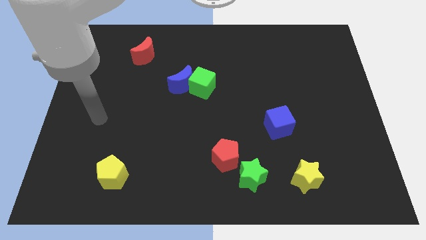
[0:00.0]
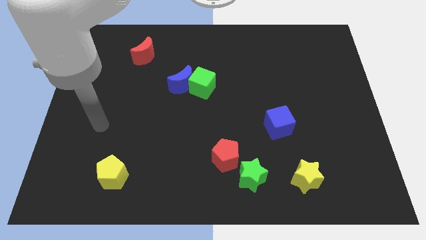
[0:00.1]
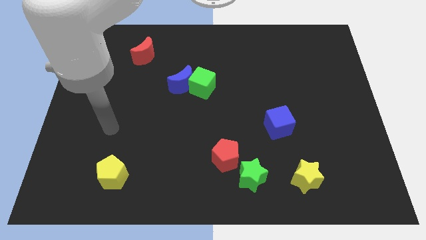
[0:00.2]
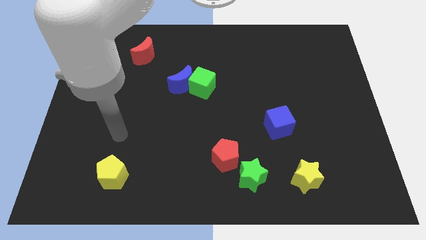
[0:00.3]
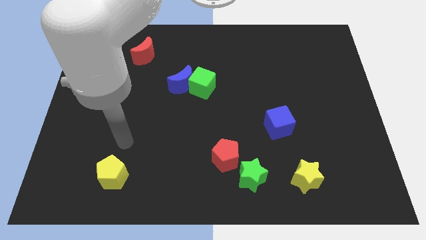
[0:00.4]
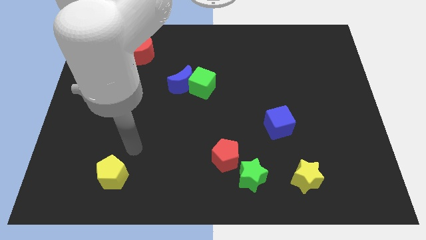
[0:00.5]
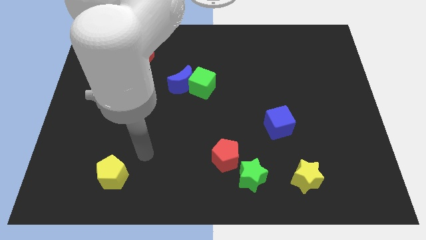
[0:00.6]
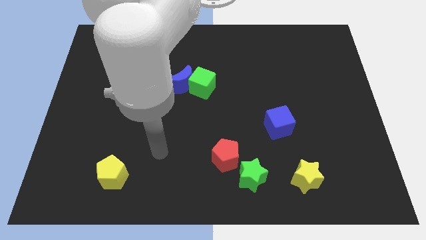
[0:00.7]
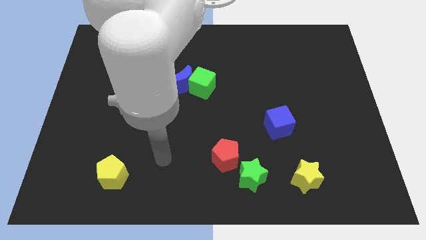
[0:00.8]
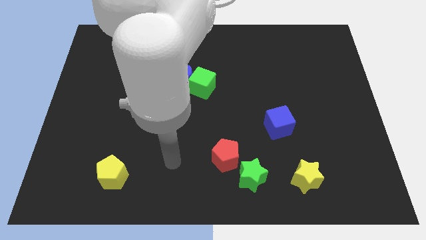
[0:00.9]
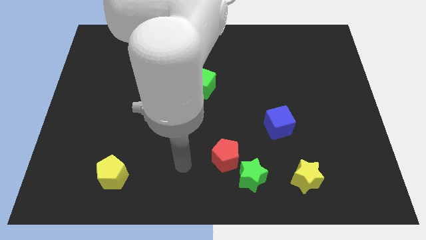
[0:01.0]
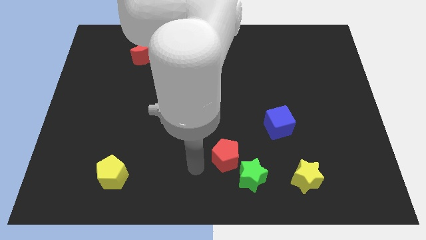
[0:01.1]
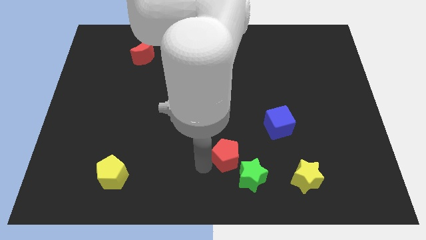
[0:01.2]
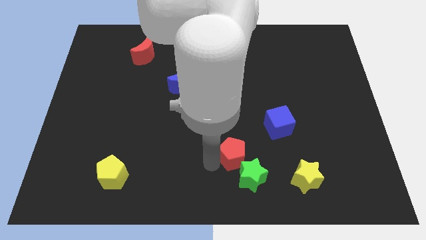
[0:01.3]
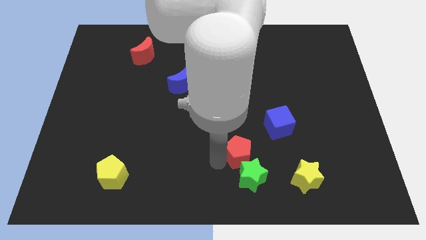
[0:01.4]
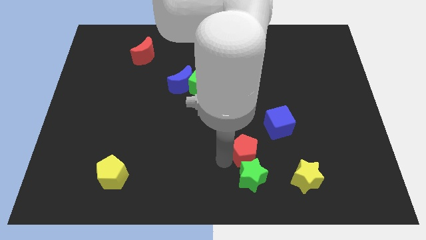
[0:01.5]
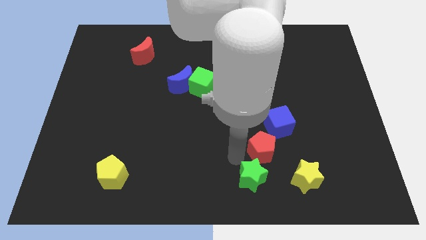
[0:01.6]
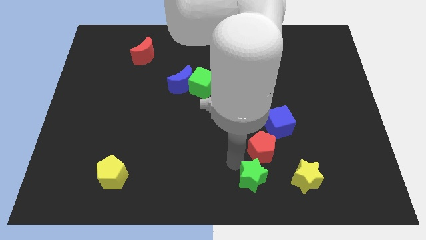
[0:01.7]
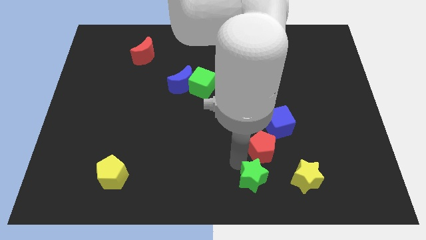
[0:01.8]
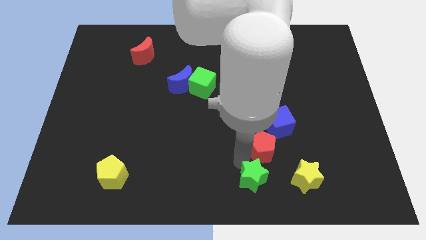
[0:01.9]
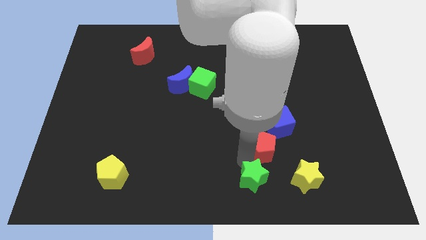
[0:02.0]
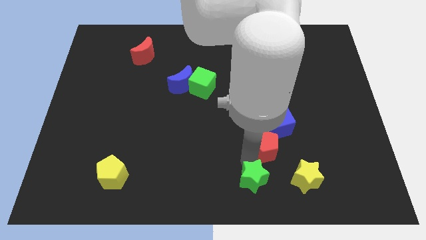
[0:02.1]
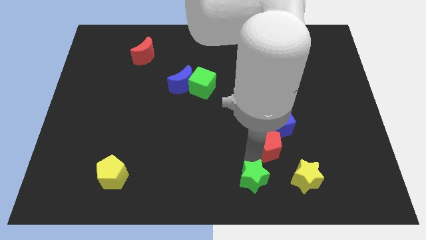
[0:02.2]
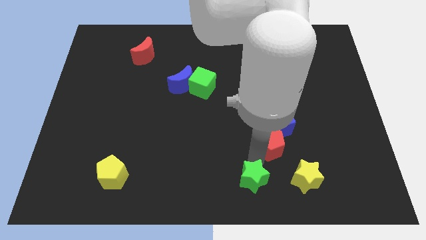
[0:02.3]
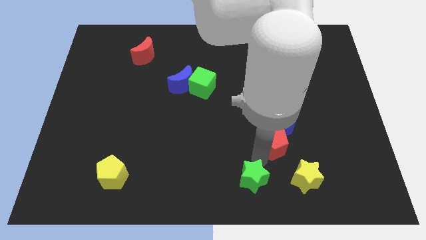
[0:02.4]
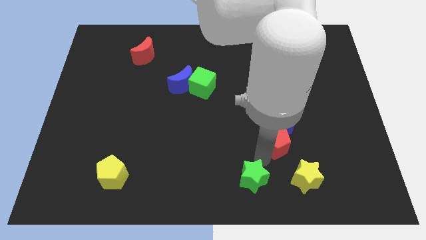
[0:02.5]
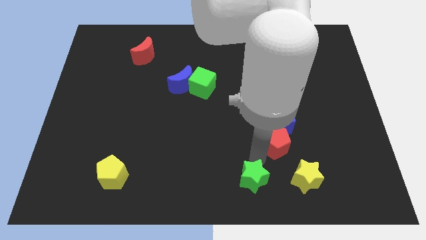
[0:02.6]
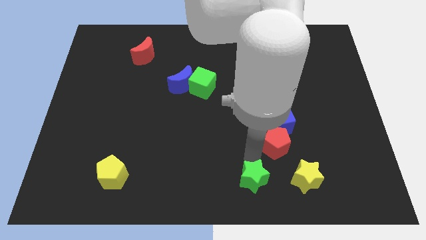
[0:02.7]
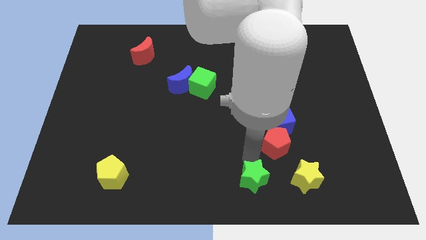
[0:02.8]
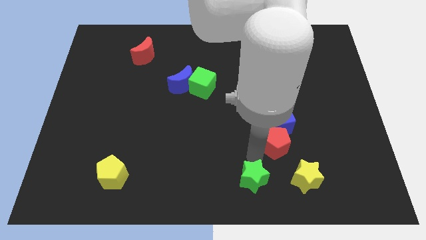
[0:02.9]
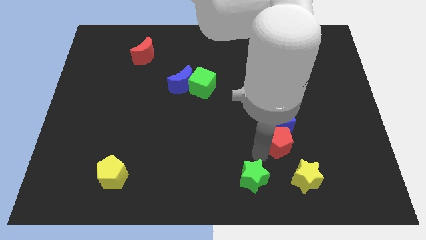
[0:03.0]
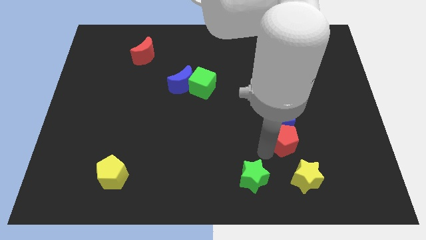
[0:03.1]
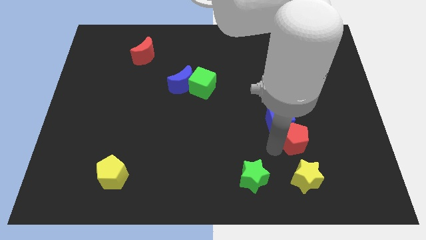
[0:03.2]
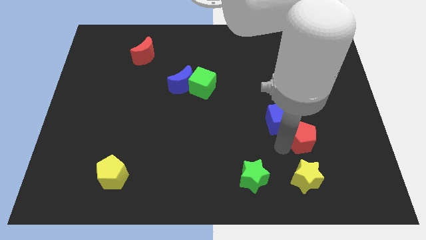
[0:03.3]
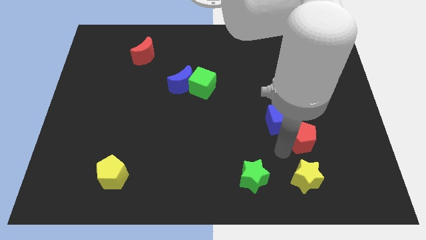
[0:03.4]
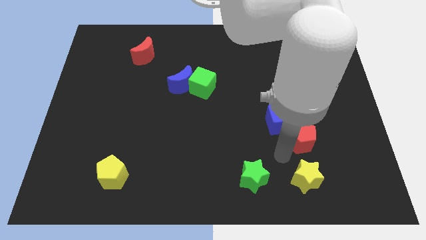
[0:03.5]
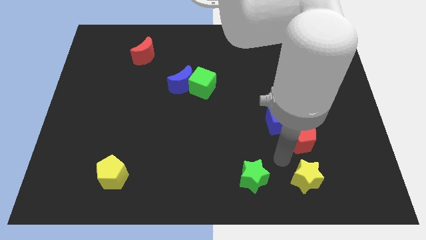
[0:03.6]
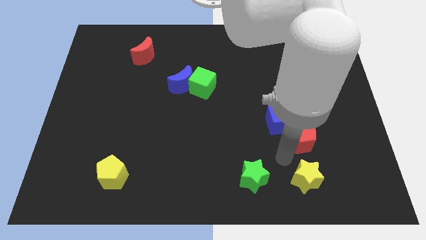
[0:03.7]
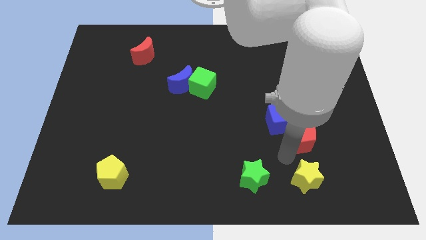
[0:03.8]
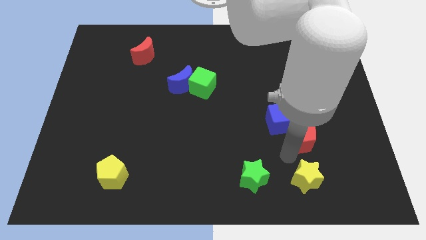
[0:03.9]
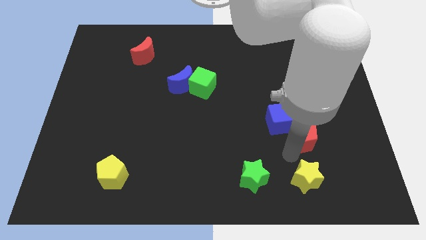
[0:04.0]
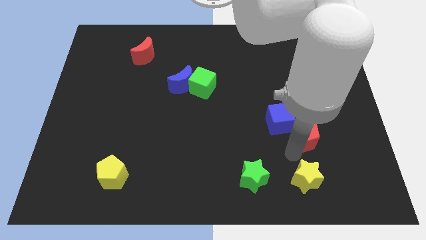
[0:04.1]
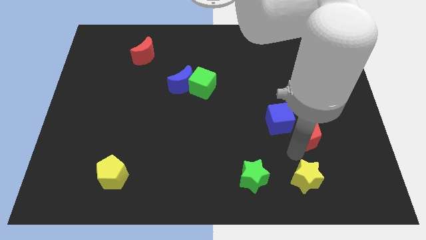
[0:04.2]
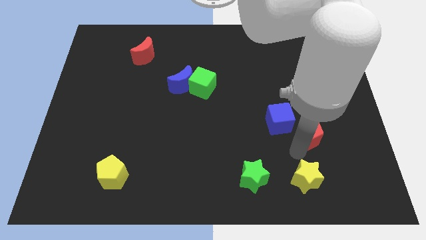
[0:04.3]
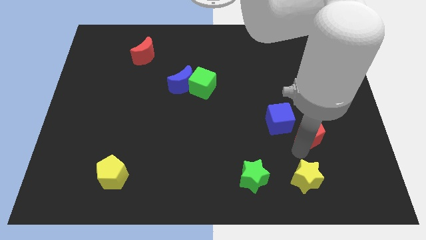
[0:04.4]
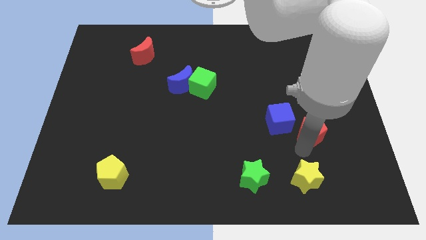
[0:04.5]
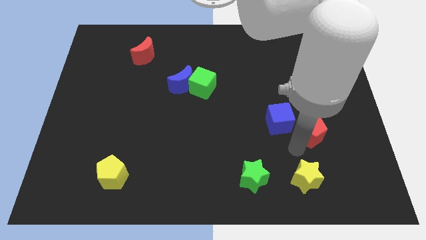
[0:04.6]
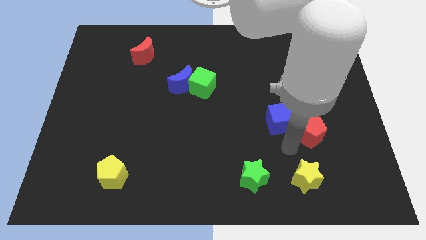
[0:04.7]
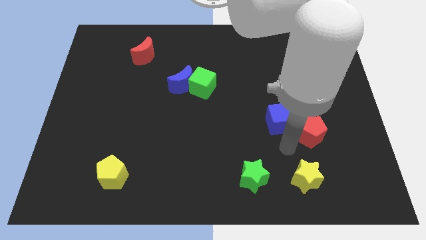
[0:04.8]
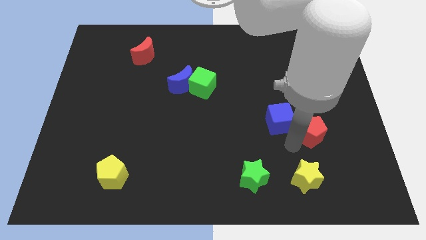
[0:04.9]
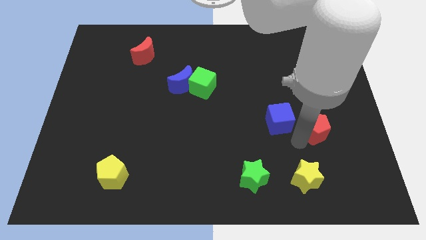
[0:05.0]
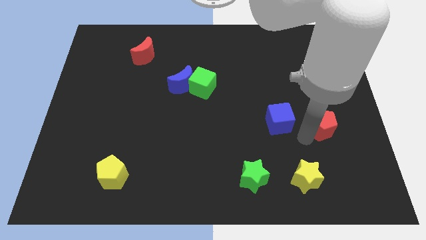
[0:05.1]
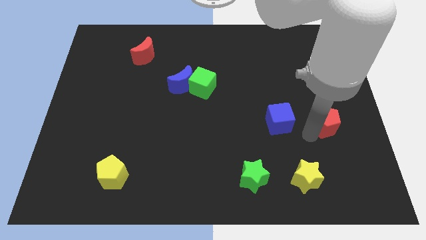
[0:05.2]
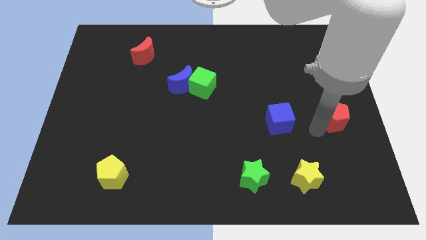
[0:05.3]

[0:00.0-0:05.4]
put the red pentagon to the center right

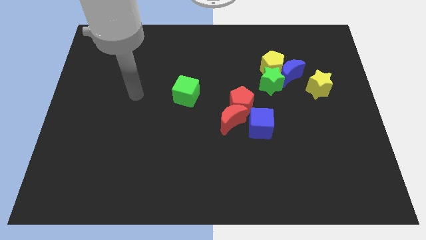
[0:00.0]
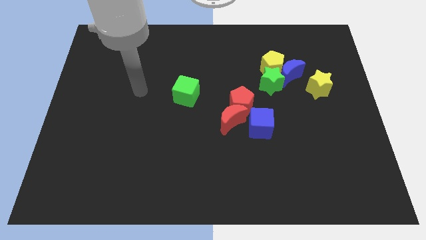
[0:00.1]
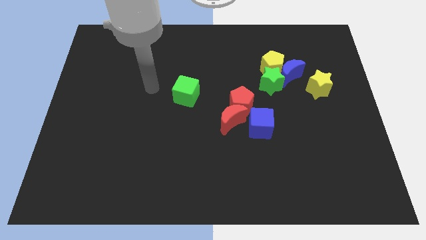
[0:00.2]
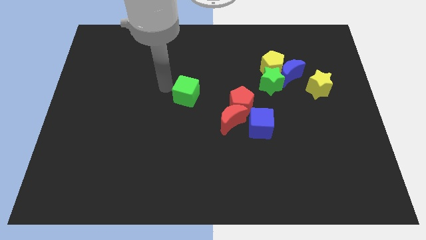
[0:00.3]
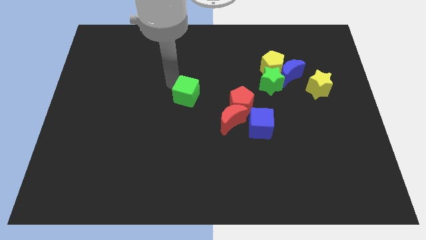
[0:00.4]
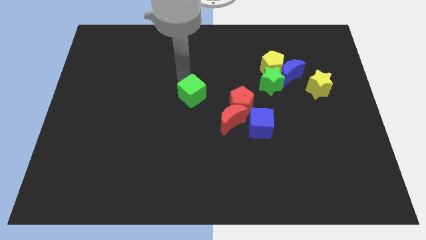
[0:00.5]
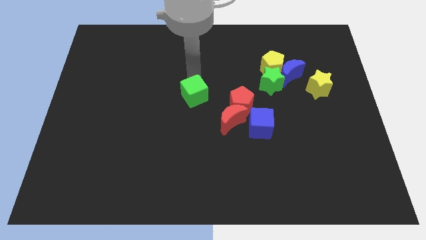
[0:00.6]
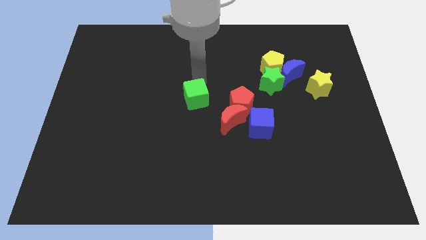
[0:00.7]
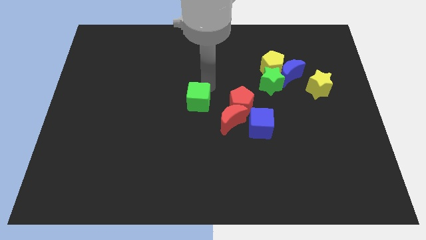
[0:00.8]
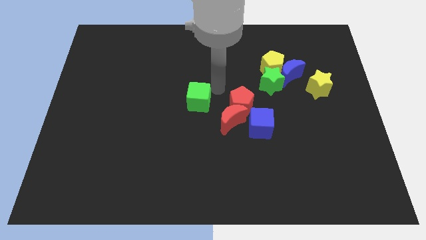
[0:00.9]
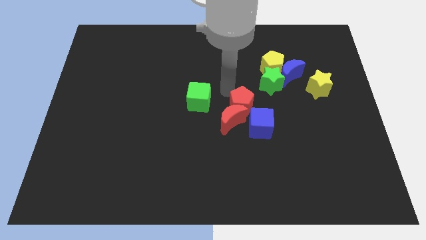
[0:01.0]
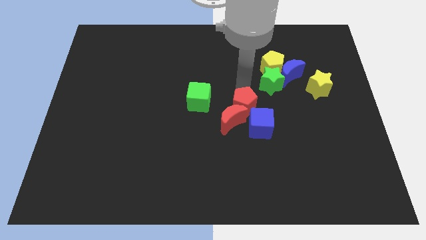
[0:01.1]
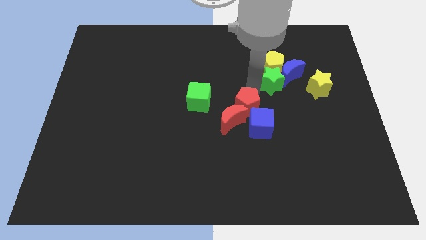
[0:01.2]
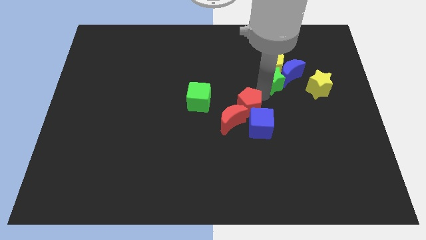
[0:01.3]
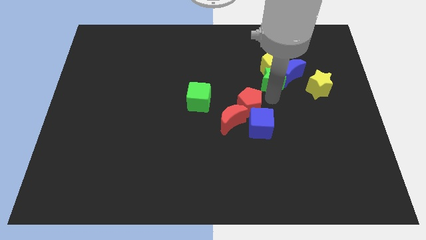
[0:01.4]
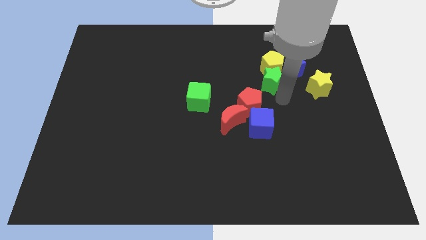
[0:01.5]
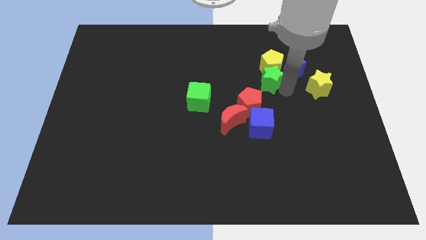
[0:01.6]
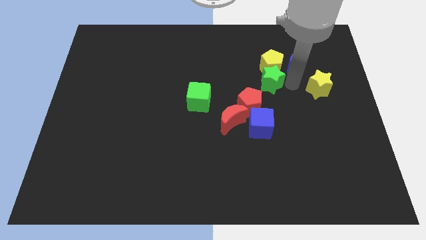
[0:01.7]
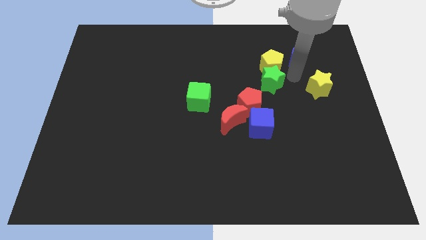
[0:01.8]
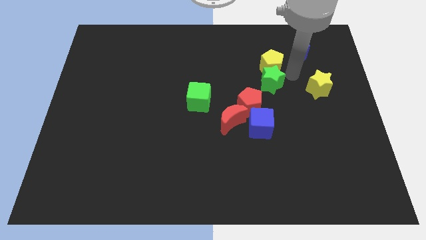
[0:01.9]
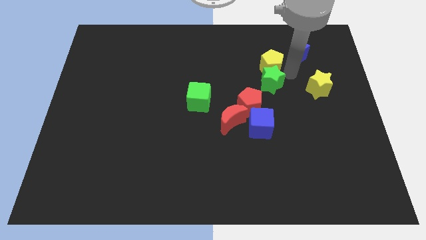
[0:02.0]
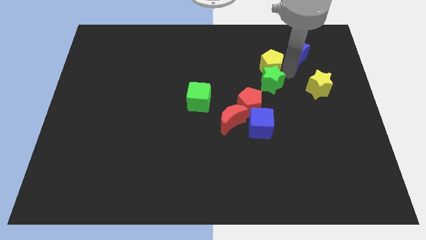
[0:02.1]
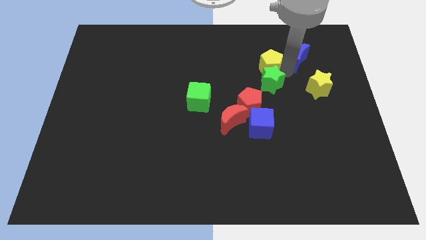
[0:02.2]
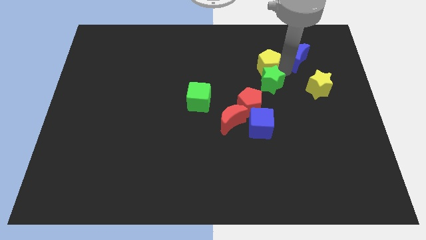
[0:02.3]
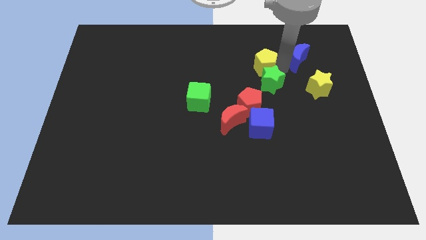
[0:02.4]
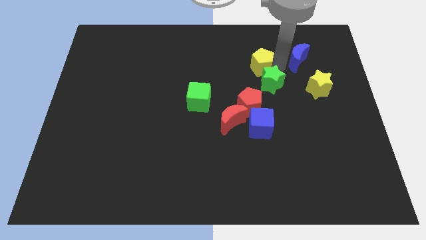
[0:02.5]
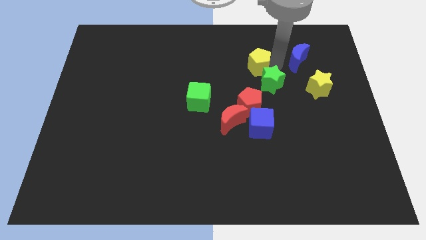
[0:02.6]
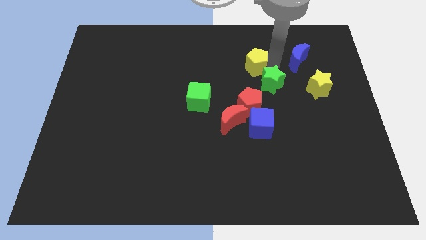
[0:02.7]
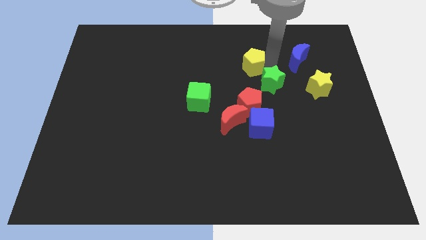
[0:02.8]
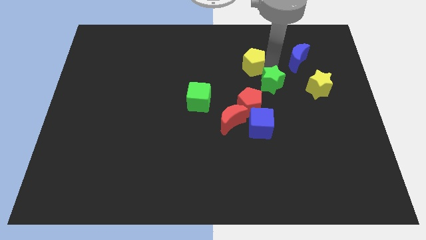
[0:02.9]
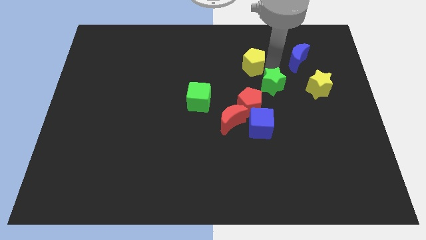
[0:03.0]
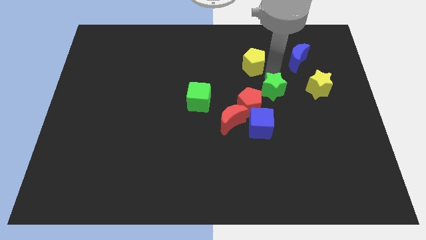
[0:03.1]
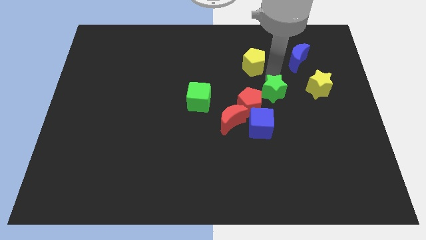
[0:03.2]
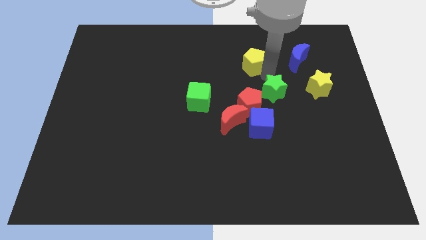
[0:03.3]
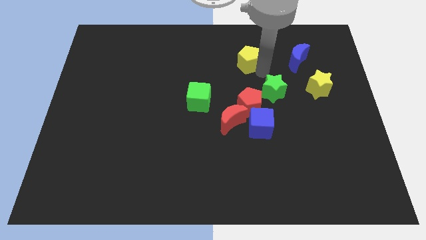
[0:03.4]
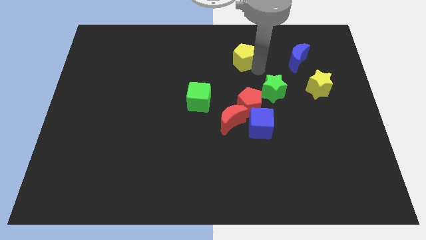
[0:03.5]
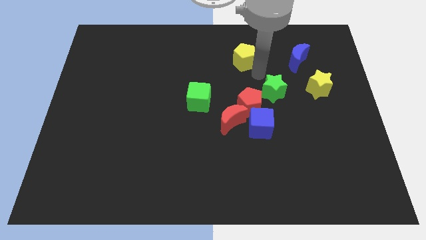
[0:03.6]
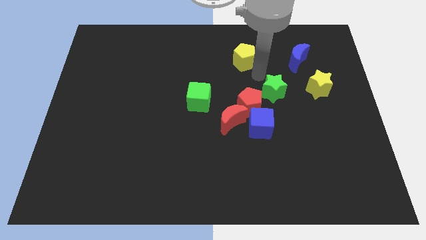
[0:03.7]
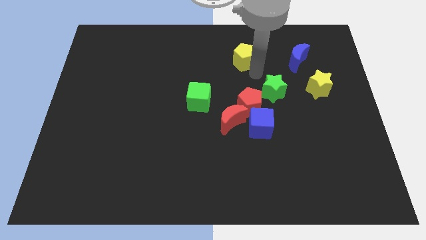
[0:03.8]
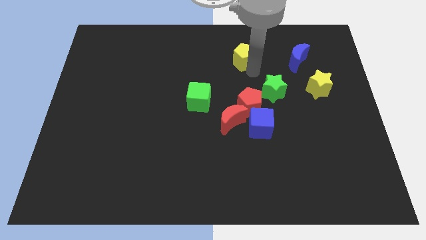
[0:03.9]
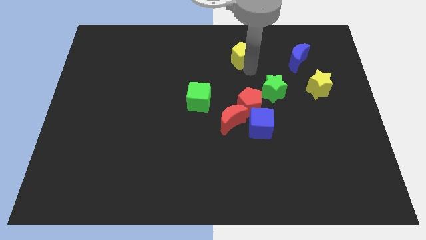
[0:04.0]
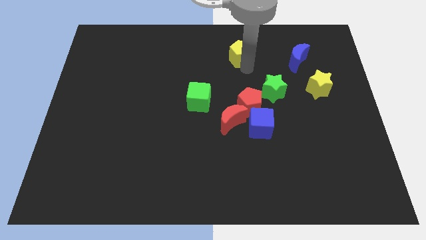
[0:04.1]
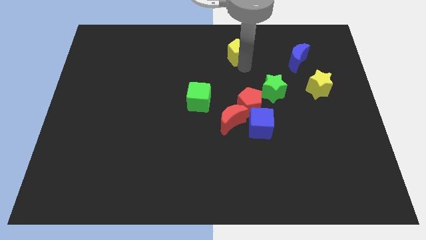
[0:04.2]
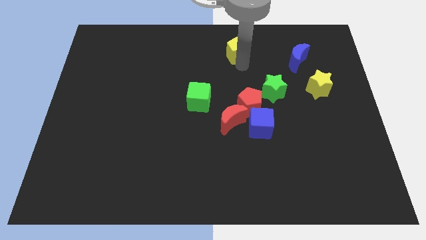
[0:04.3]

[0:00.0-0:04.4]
put the yellow pentagon to the top side
